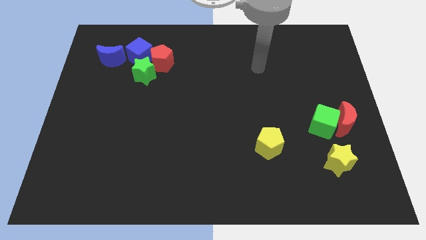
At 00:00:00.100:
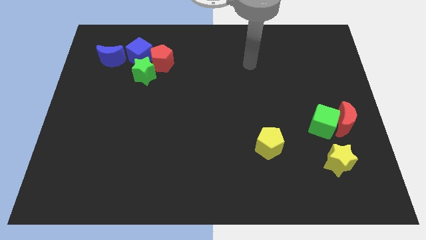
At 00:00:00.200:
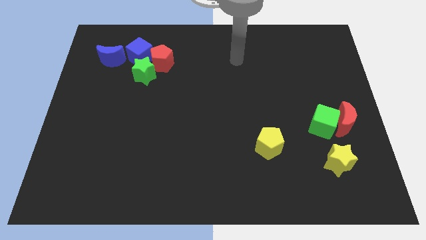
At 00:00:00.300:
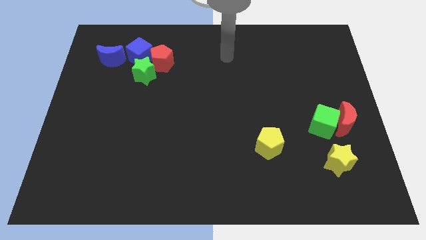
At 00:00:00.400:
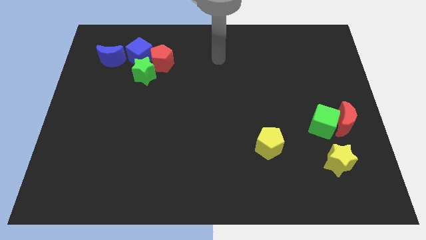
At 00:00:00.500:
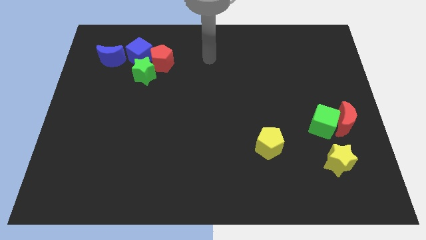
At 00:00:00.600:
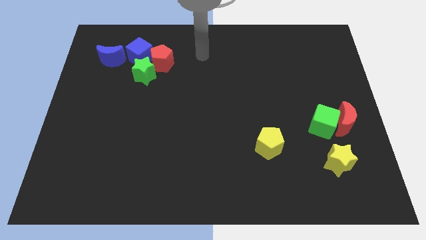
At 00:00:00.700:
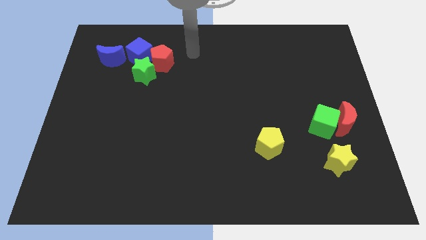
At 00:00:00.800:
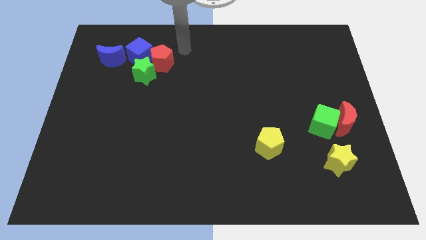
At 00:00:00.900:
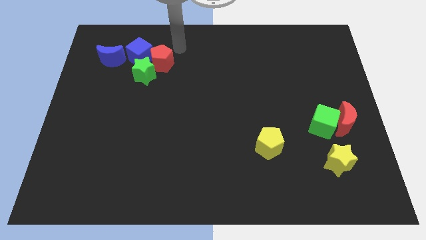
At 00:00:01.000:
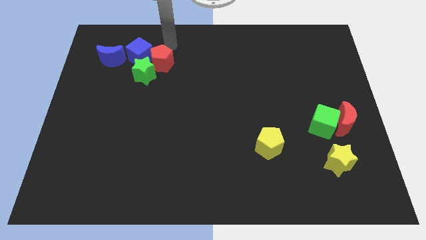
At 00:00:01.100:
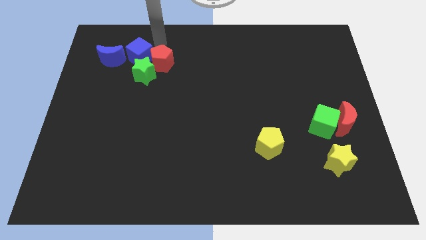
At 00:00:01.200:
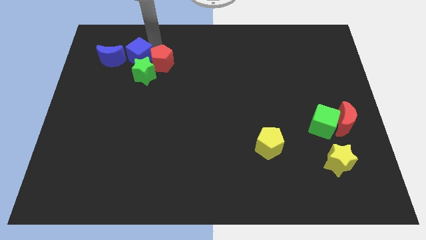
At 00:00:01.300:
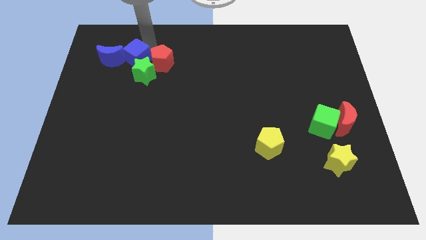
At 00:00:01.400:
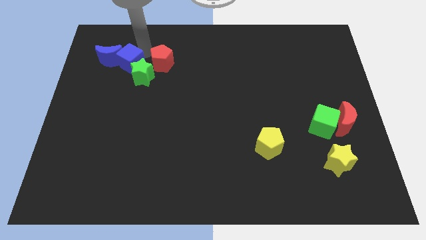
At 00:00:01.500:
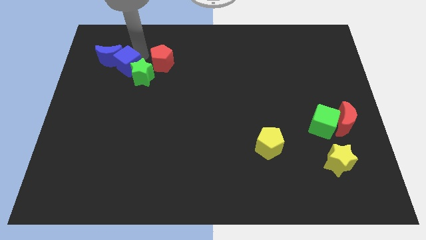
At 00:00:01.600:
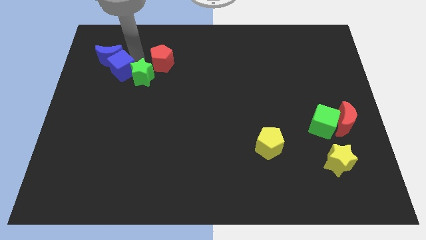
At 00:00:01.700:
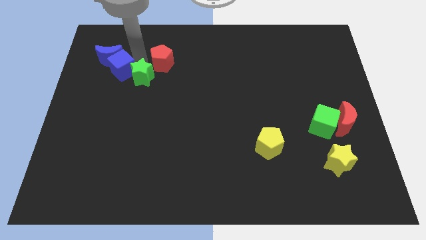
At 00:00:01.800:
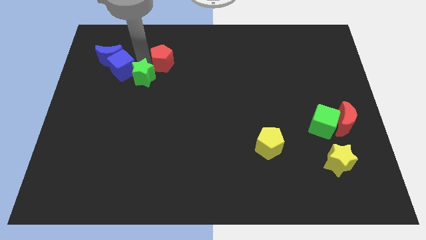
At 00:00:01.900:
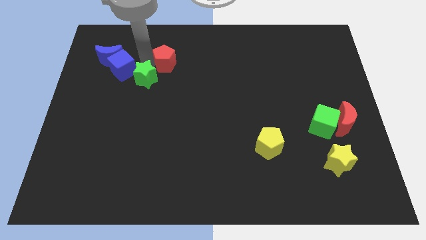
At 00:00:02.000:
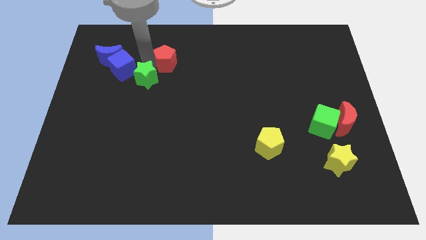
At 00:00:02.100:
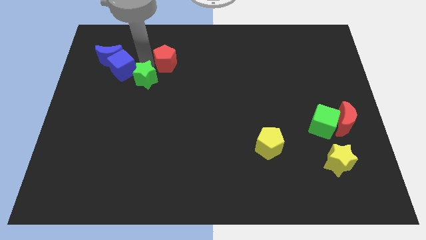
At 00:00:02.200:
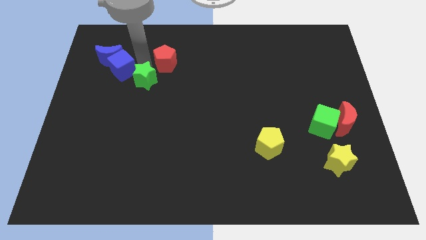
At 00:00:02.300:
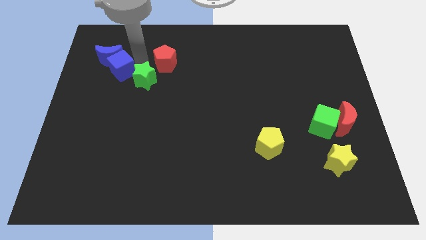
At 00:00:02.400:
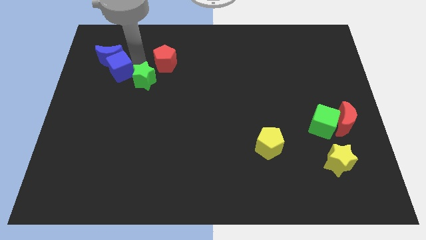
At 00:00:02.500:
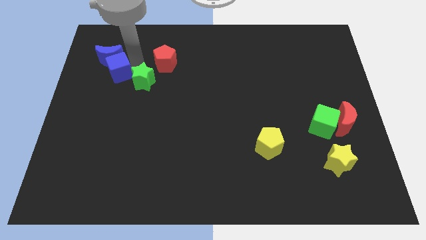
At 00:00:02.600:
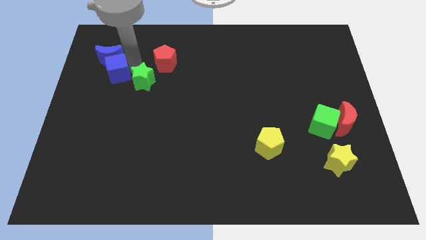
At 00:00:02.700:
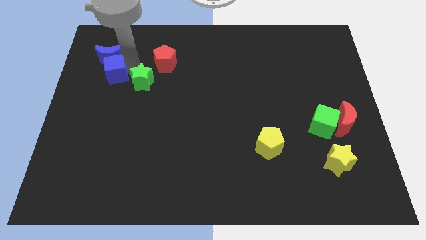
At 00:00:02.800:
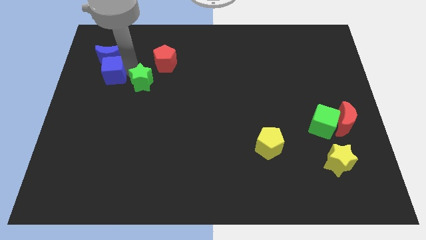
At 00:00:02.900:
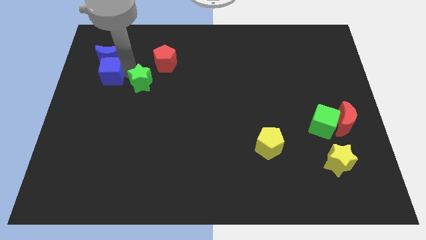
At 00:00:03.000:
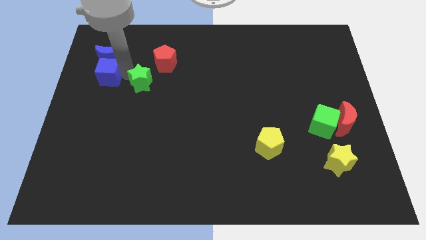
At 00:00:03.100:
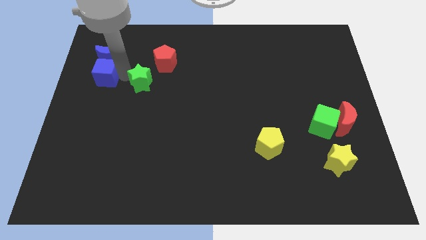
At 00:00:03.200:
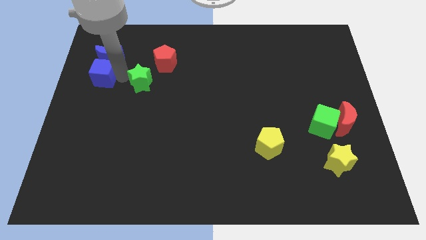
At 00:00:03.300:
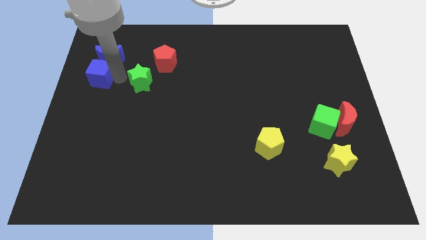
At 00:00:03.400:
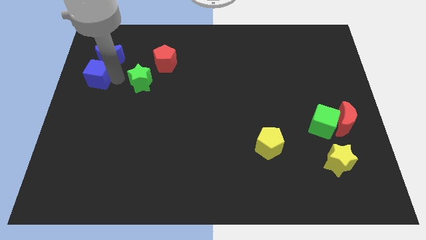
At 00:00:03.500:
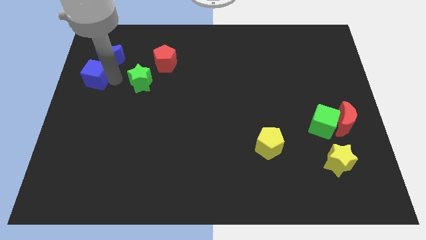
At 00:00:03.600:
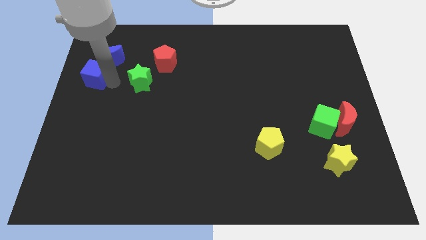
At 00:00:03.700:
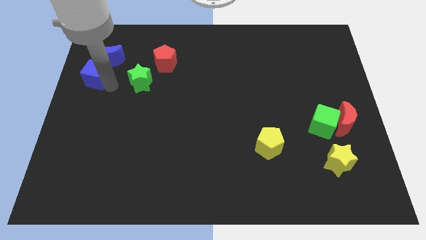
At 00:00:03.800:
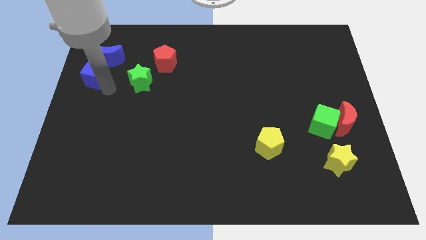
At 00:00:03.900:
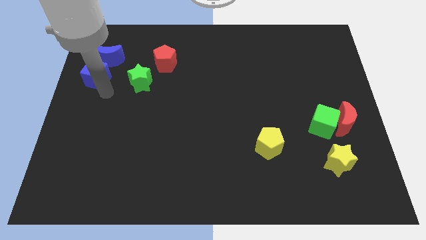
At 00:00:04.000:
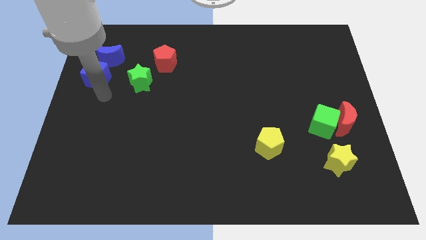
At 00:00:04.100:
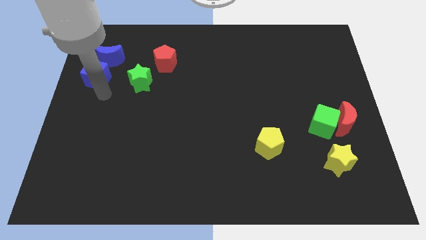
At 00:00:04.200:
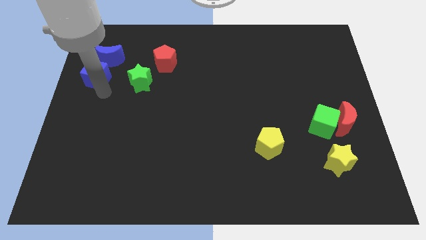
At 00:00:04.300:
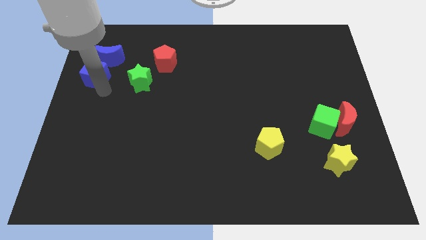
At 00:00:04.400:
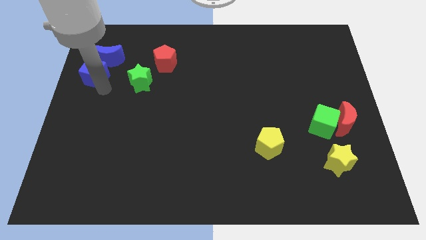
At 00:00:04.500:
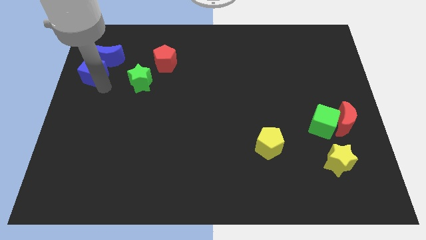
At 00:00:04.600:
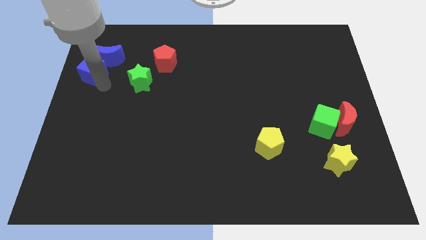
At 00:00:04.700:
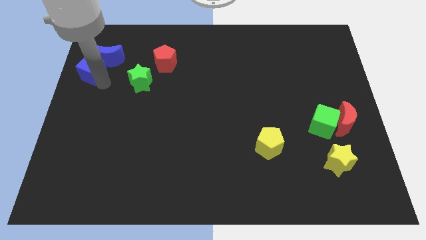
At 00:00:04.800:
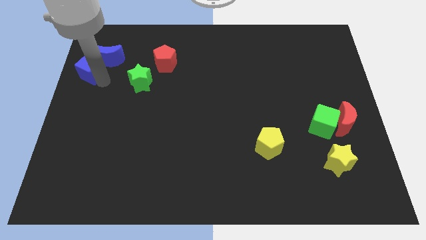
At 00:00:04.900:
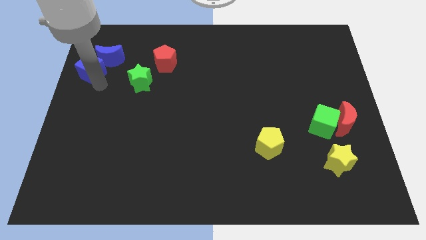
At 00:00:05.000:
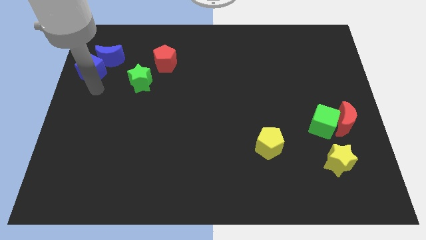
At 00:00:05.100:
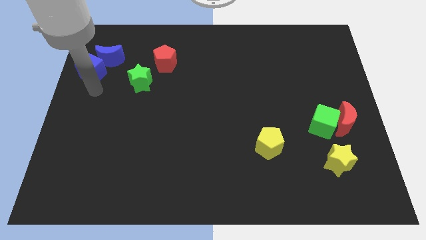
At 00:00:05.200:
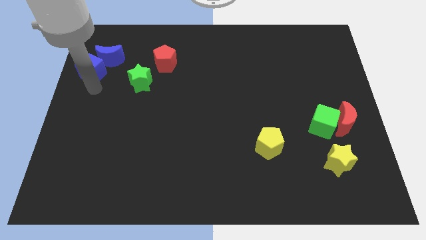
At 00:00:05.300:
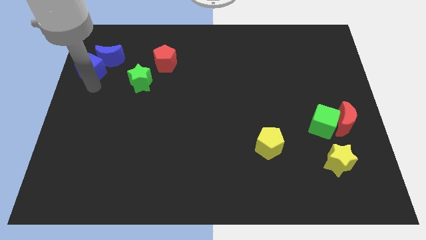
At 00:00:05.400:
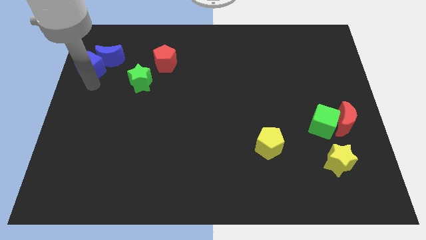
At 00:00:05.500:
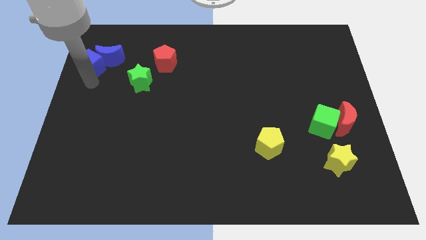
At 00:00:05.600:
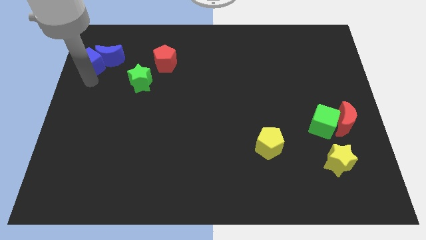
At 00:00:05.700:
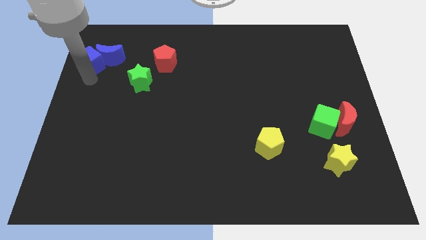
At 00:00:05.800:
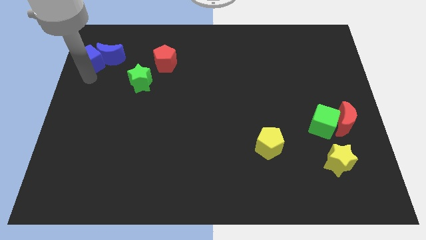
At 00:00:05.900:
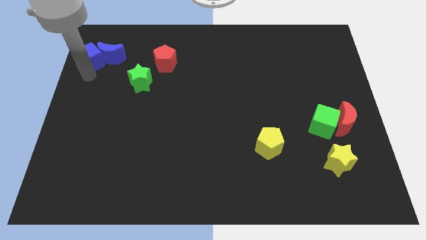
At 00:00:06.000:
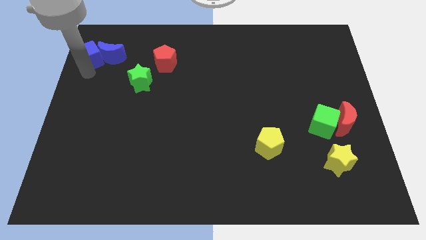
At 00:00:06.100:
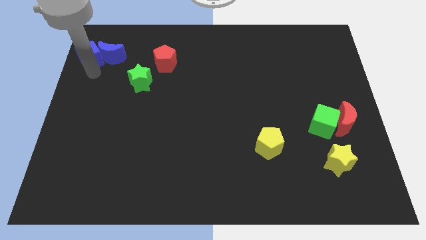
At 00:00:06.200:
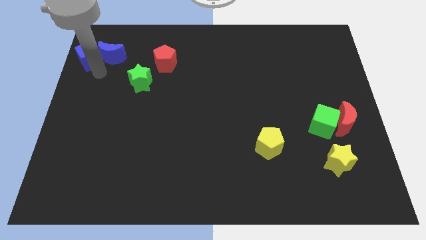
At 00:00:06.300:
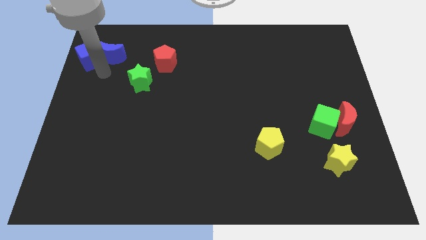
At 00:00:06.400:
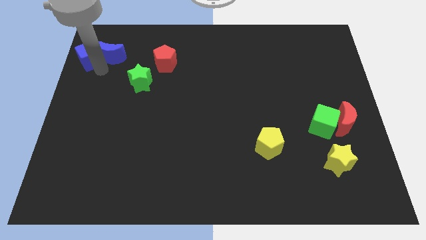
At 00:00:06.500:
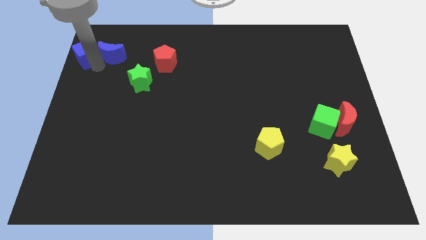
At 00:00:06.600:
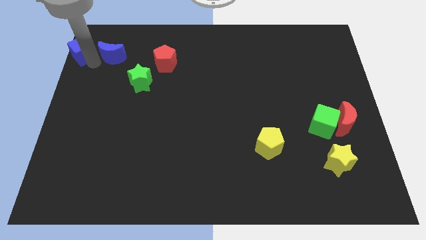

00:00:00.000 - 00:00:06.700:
slide the blue cube to the upper left corner
